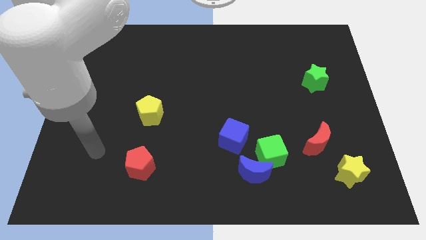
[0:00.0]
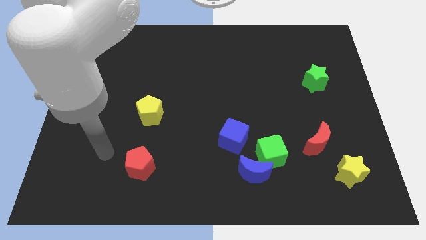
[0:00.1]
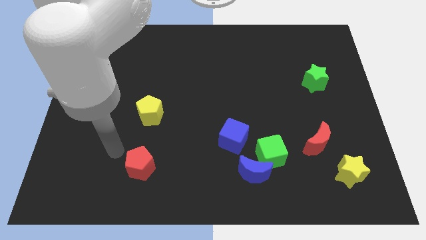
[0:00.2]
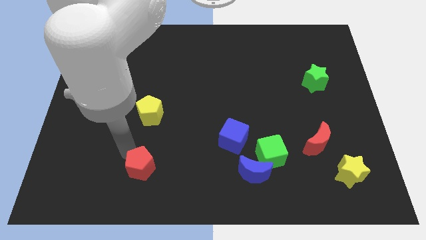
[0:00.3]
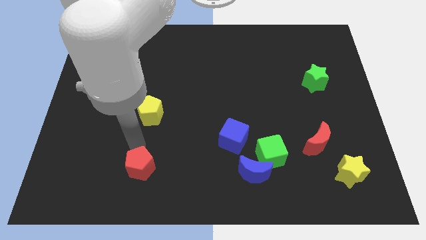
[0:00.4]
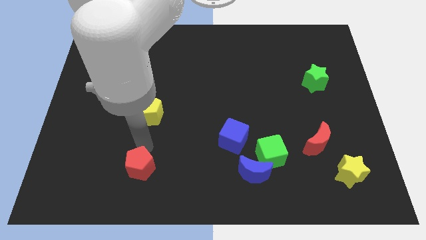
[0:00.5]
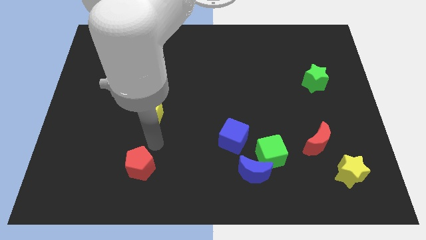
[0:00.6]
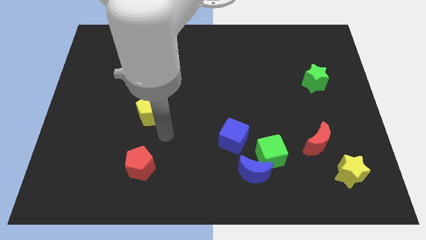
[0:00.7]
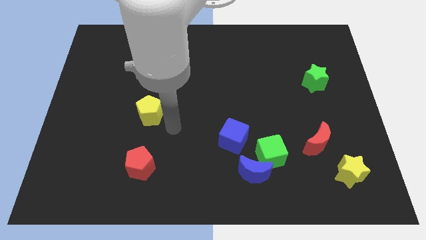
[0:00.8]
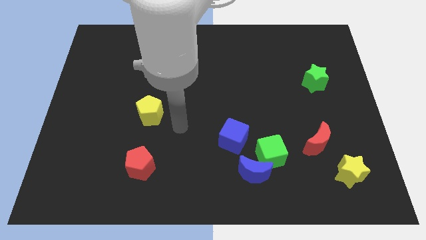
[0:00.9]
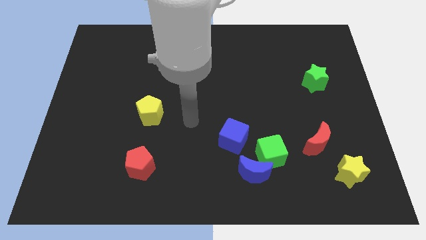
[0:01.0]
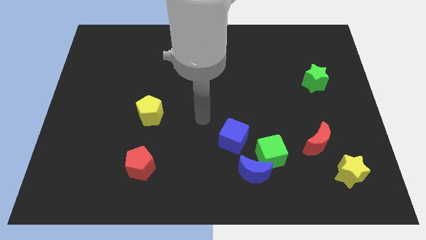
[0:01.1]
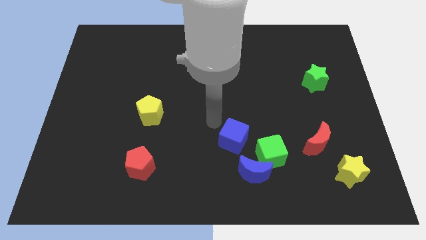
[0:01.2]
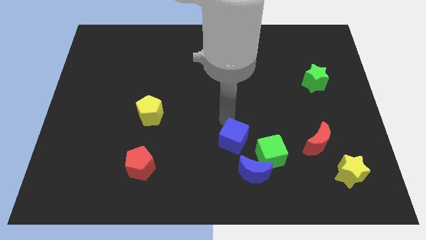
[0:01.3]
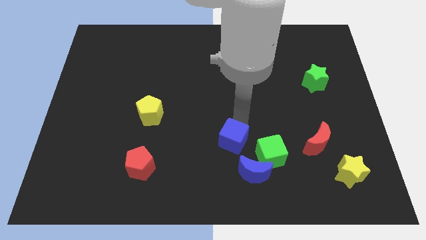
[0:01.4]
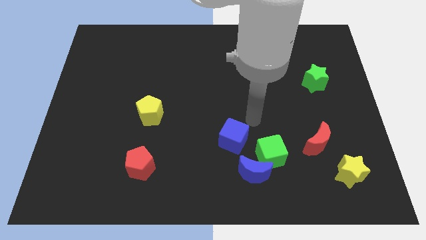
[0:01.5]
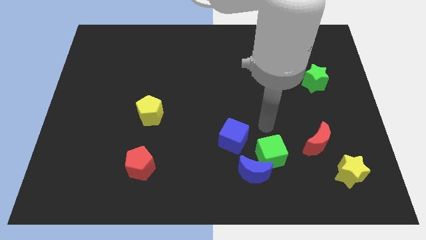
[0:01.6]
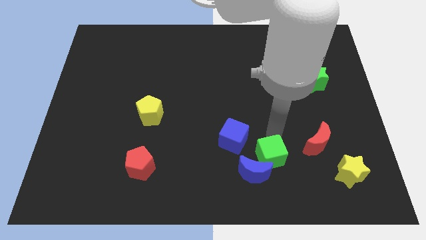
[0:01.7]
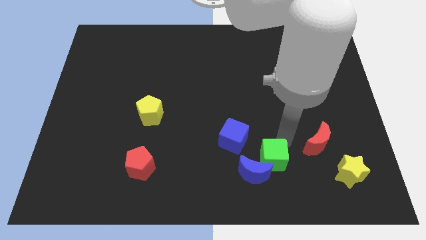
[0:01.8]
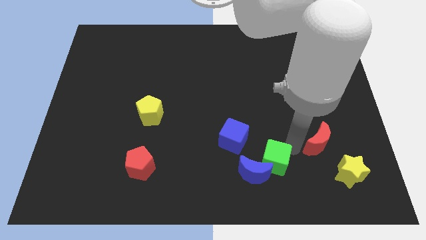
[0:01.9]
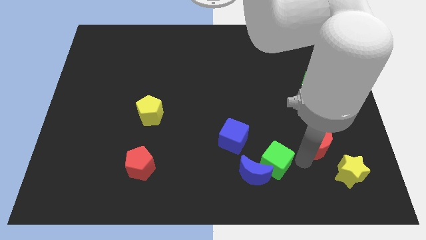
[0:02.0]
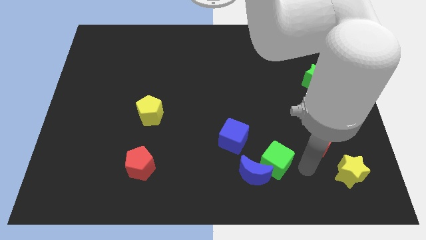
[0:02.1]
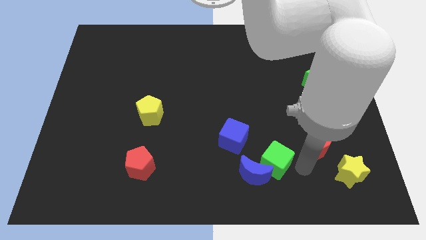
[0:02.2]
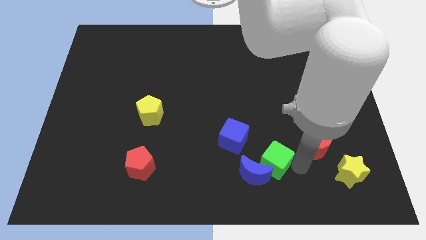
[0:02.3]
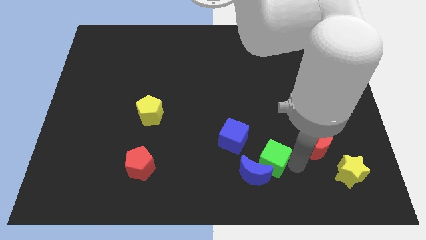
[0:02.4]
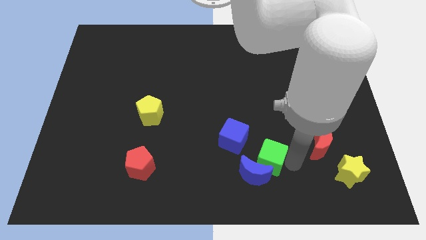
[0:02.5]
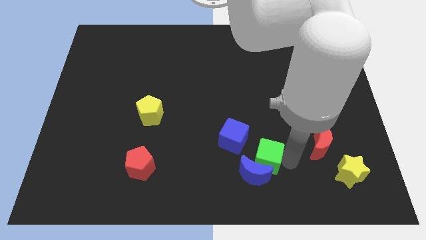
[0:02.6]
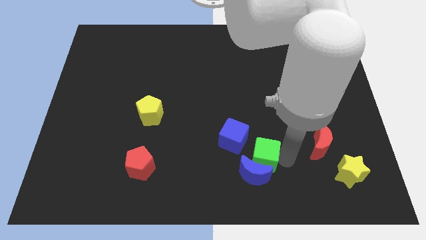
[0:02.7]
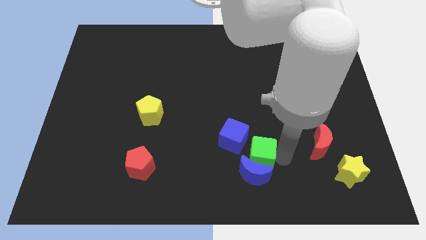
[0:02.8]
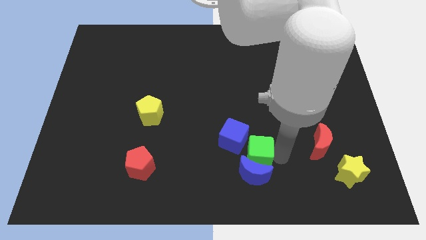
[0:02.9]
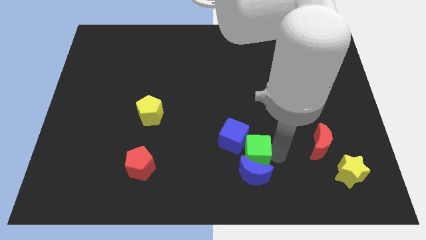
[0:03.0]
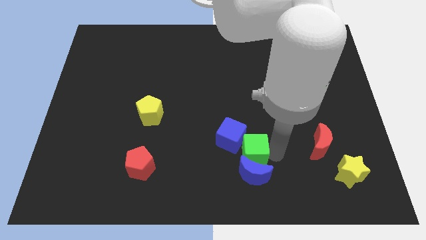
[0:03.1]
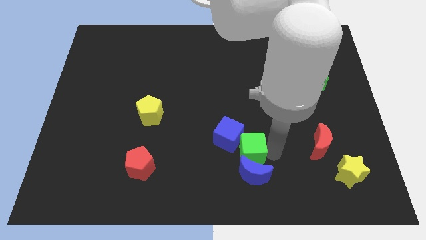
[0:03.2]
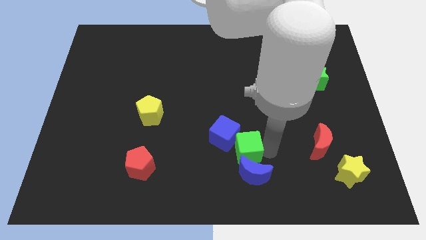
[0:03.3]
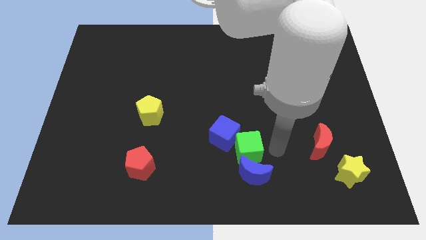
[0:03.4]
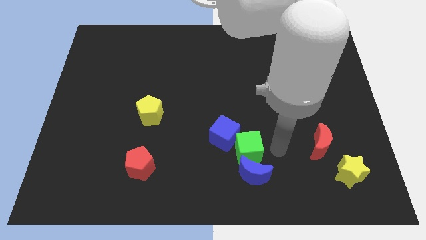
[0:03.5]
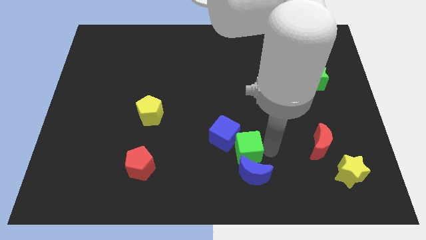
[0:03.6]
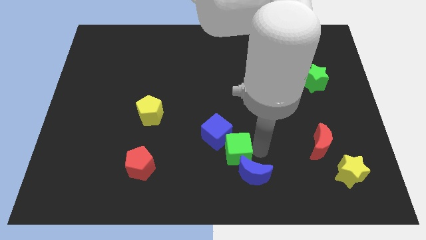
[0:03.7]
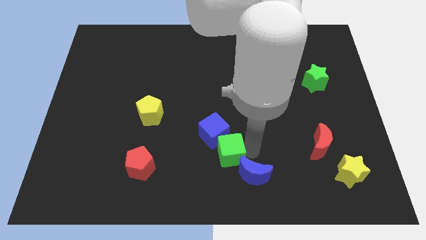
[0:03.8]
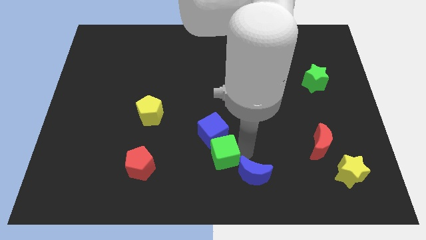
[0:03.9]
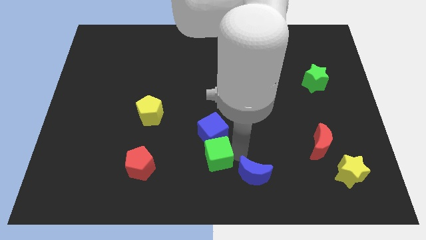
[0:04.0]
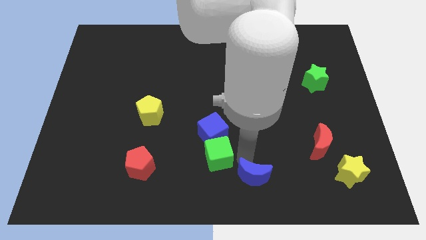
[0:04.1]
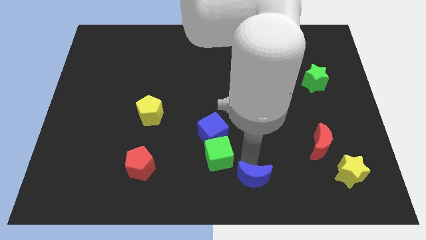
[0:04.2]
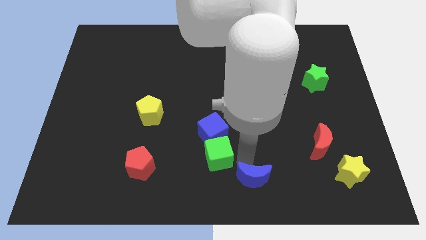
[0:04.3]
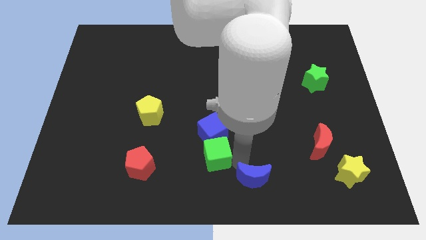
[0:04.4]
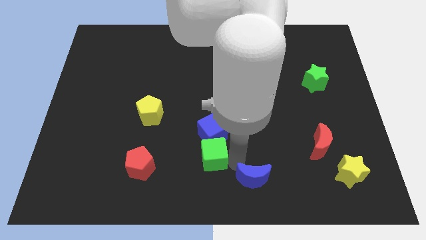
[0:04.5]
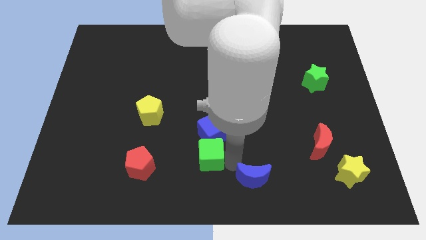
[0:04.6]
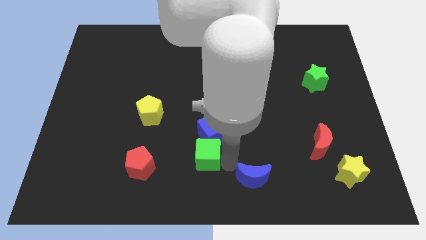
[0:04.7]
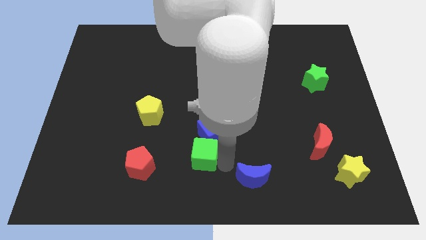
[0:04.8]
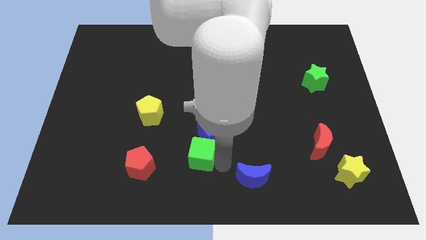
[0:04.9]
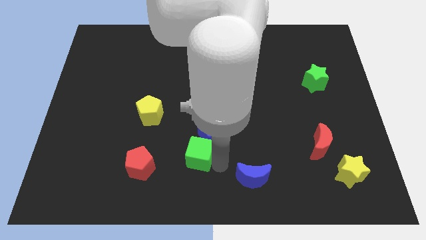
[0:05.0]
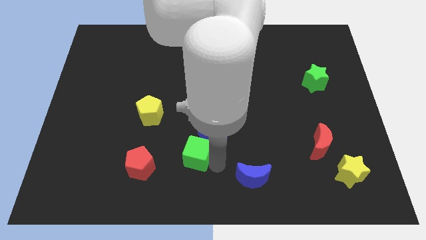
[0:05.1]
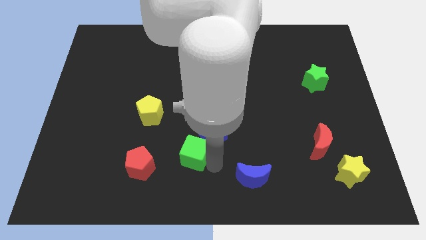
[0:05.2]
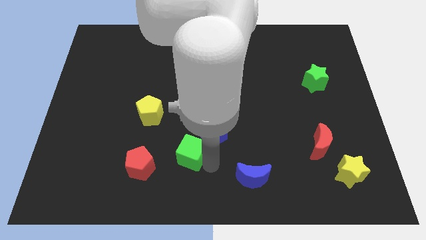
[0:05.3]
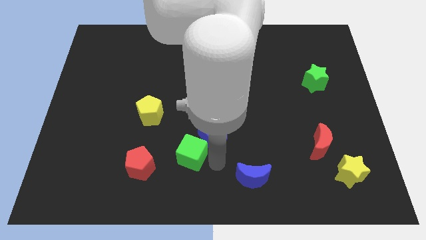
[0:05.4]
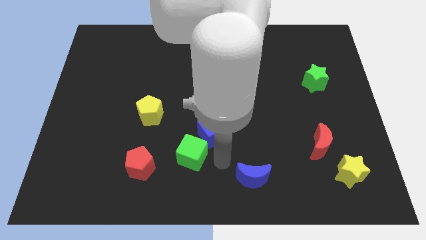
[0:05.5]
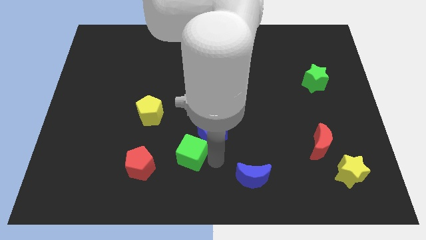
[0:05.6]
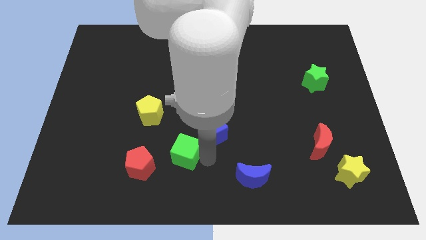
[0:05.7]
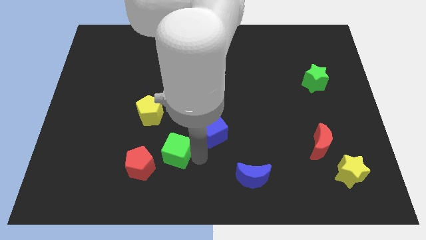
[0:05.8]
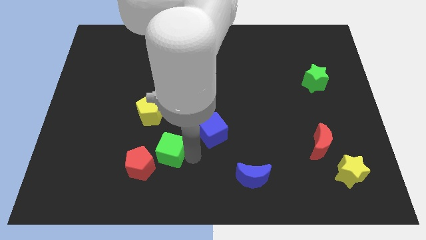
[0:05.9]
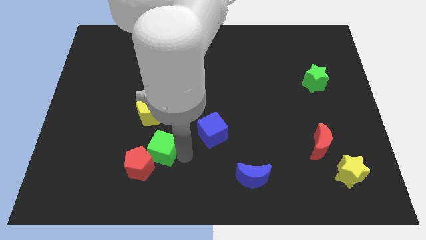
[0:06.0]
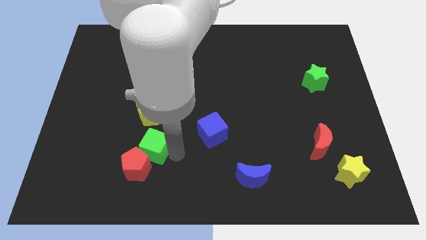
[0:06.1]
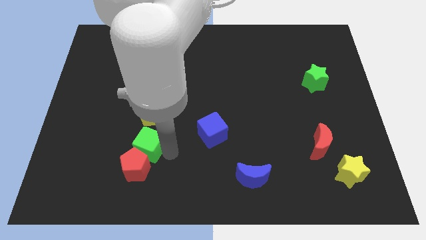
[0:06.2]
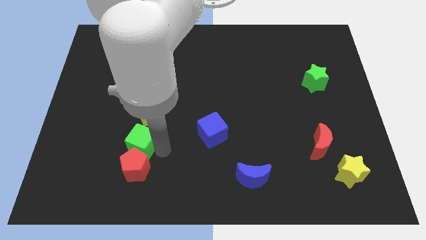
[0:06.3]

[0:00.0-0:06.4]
push the green cube diagonally up and to the left of the red pentagon

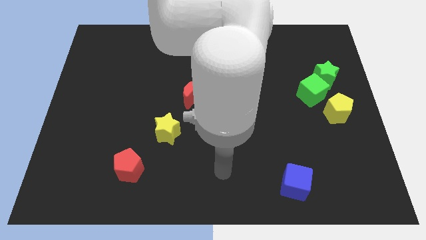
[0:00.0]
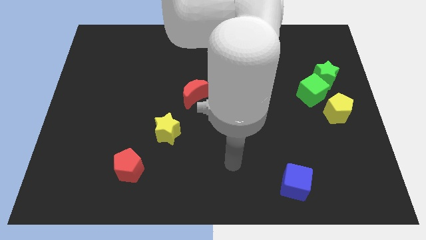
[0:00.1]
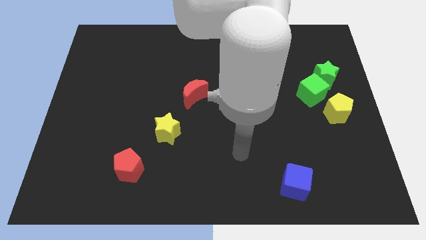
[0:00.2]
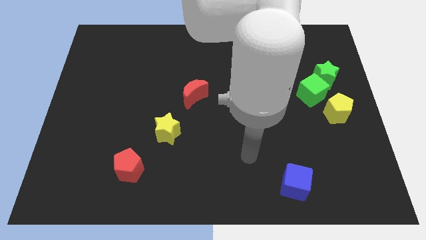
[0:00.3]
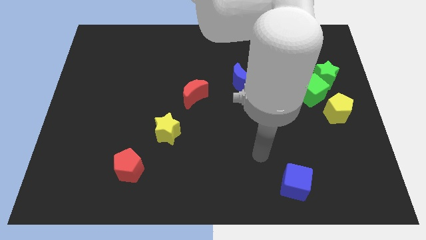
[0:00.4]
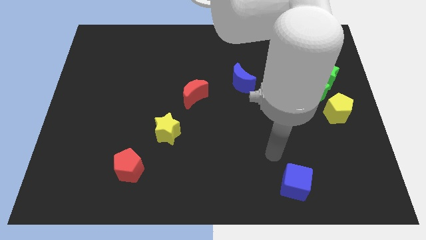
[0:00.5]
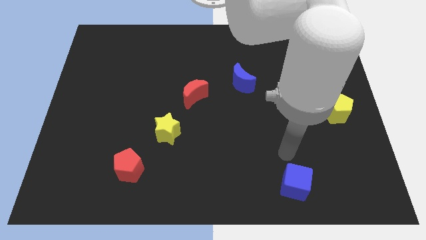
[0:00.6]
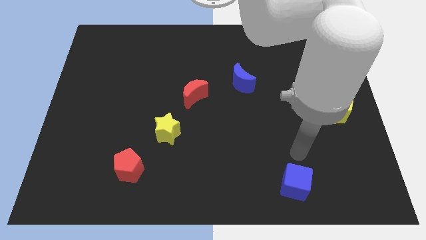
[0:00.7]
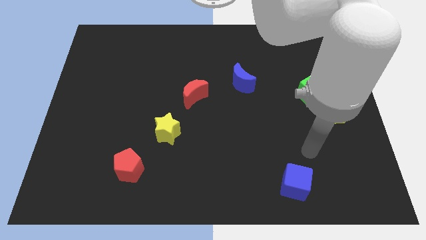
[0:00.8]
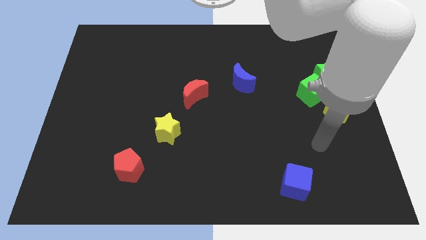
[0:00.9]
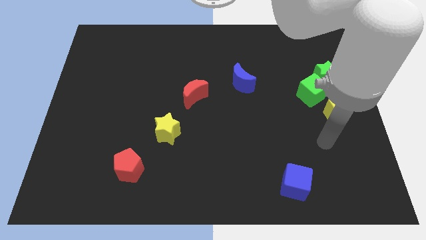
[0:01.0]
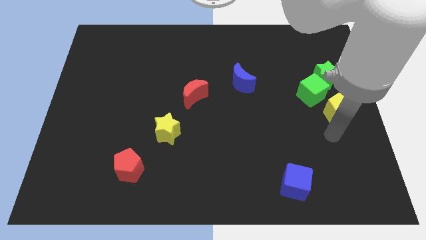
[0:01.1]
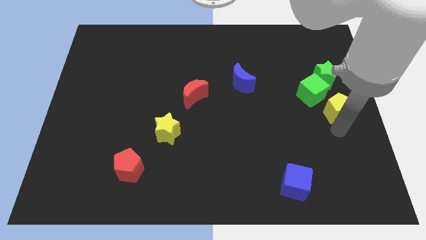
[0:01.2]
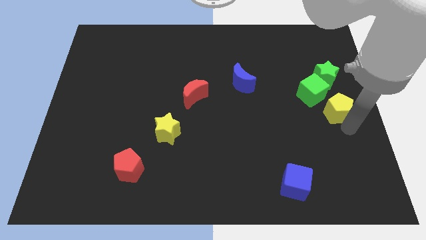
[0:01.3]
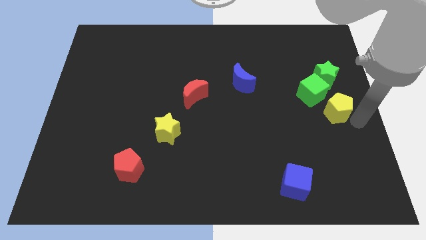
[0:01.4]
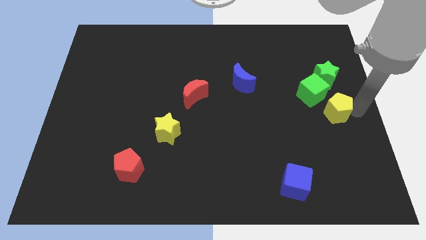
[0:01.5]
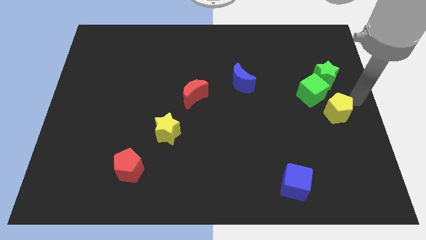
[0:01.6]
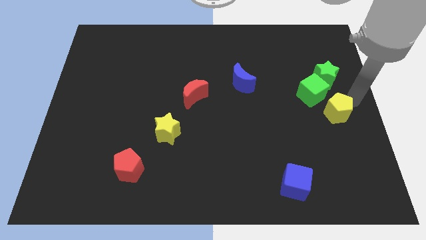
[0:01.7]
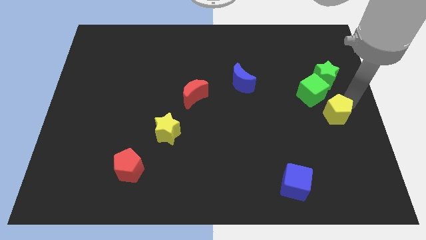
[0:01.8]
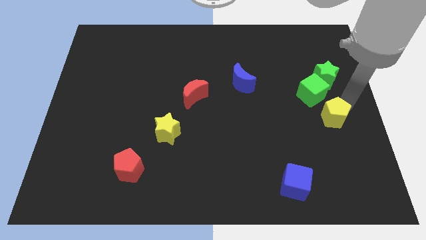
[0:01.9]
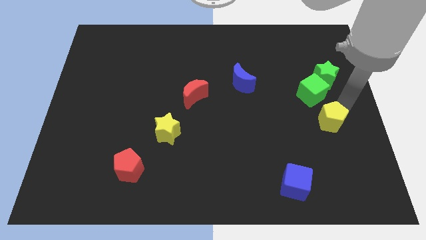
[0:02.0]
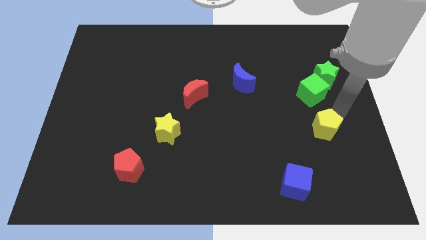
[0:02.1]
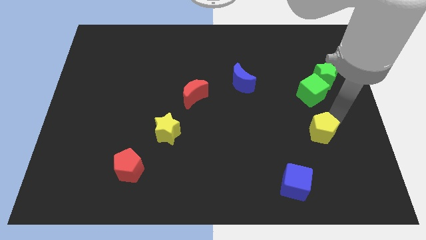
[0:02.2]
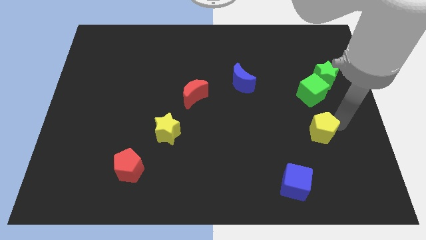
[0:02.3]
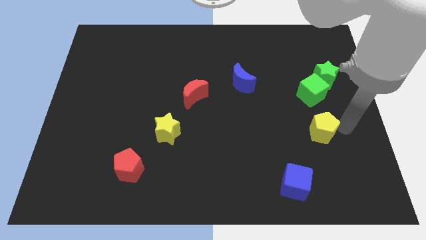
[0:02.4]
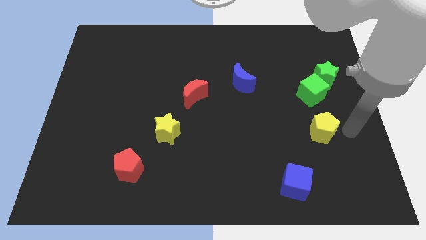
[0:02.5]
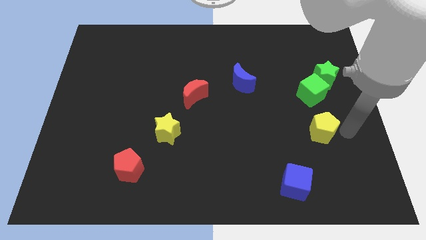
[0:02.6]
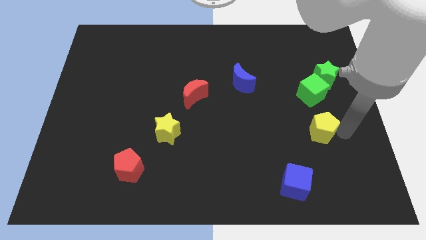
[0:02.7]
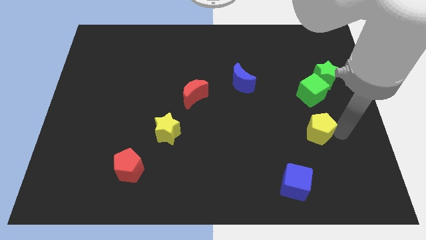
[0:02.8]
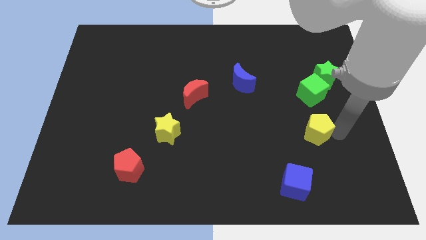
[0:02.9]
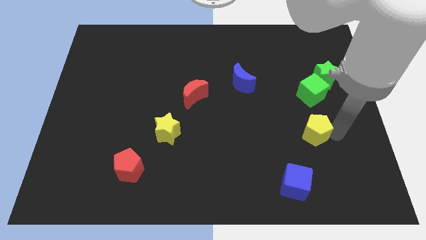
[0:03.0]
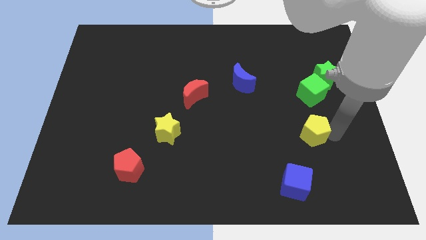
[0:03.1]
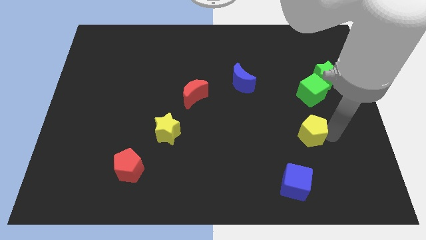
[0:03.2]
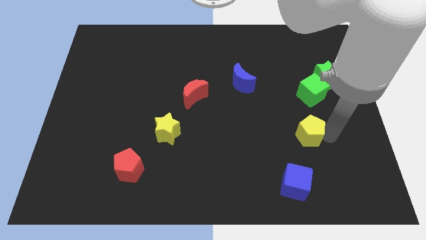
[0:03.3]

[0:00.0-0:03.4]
move the yellow pentagon to the top side of the blue cube
